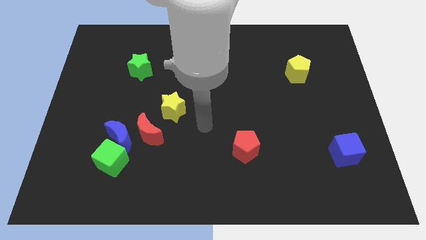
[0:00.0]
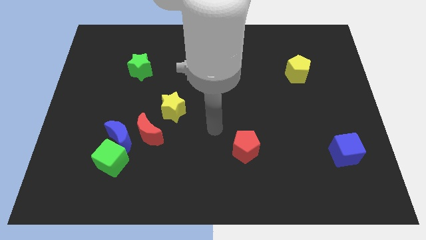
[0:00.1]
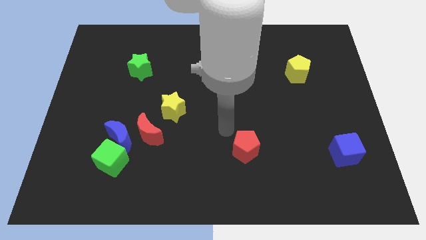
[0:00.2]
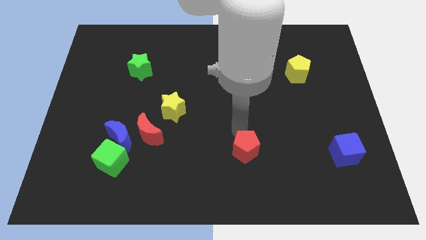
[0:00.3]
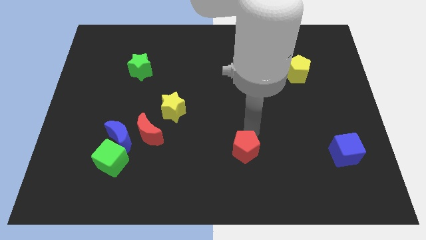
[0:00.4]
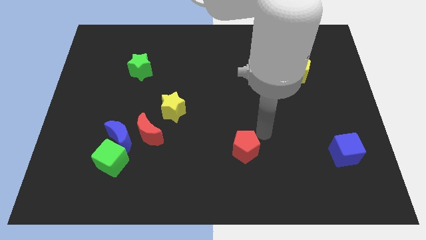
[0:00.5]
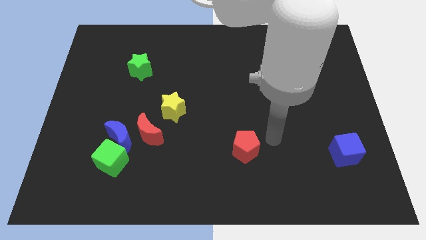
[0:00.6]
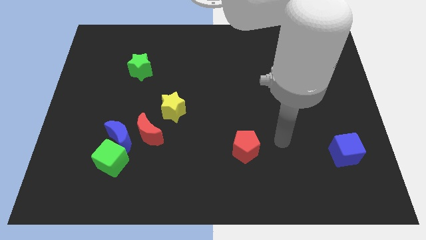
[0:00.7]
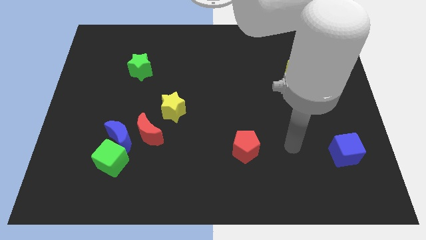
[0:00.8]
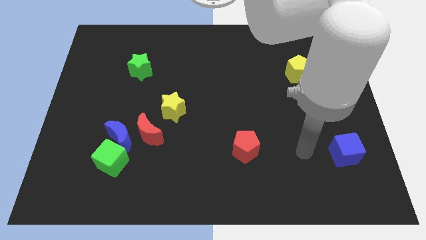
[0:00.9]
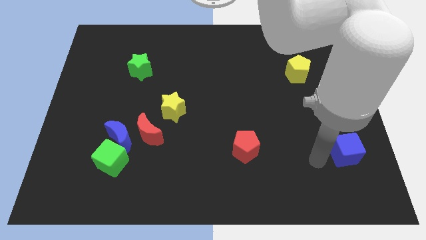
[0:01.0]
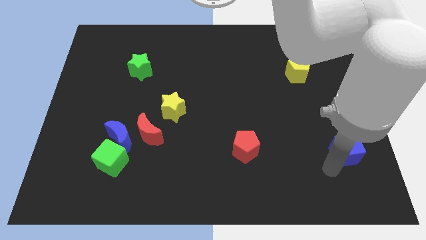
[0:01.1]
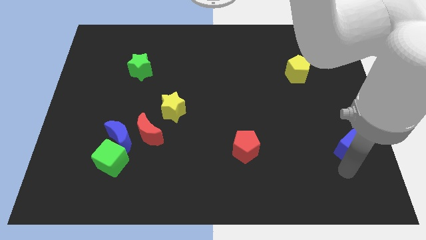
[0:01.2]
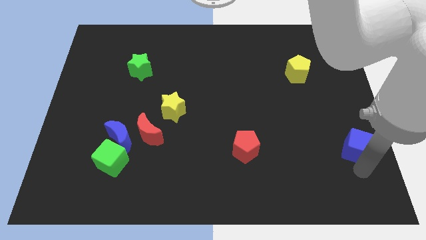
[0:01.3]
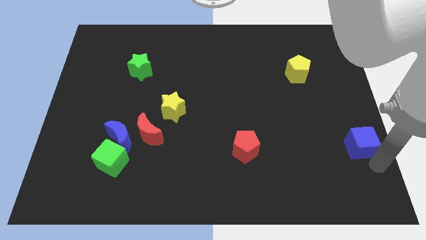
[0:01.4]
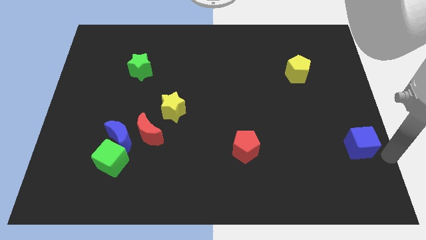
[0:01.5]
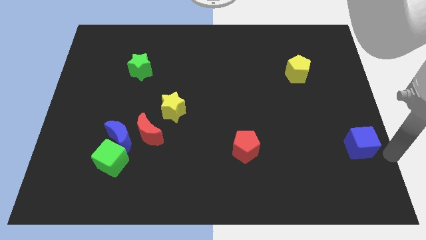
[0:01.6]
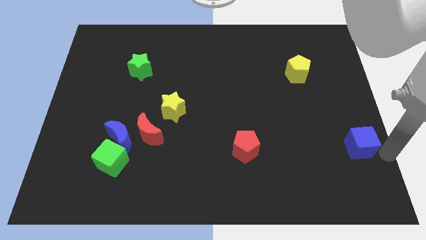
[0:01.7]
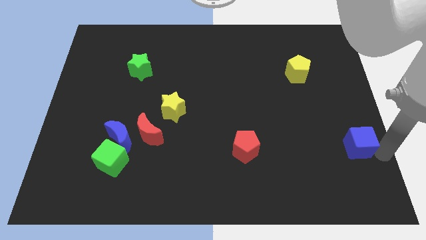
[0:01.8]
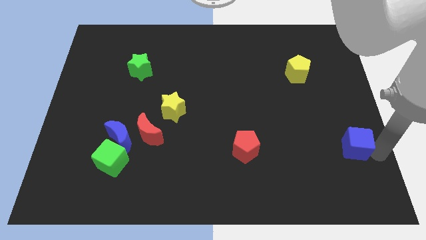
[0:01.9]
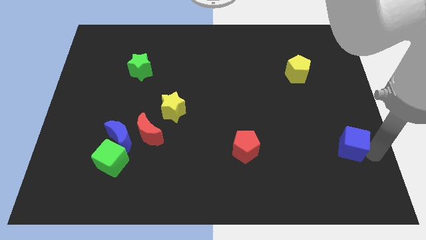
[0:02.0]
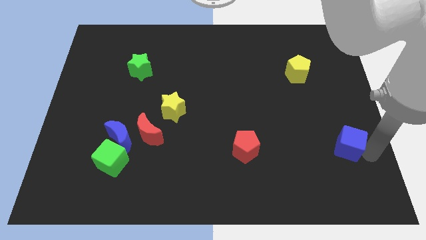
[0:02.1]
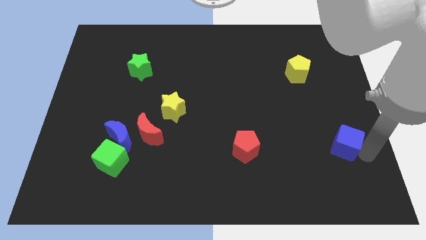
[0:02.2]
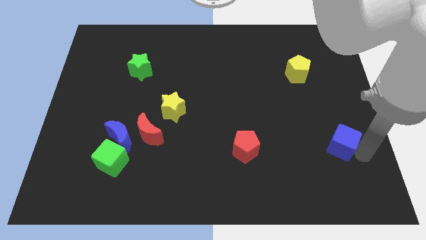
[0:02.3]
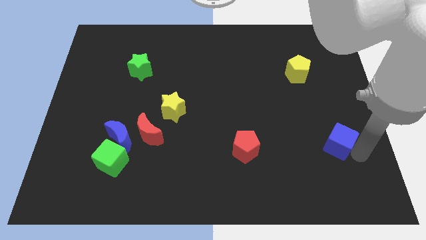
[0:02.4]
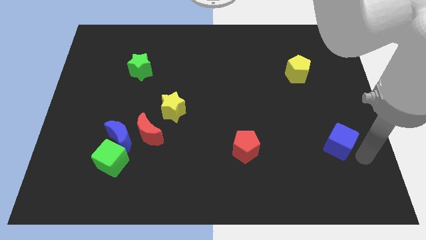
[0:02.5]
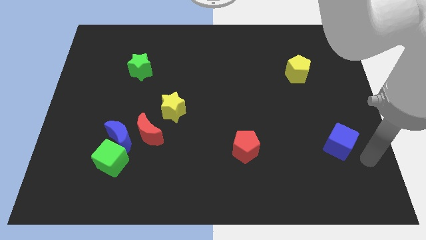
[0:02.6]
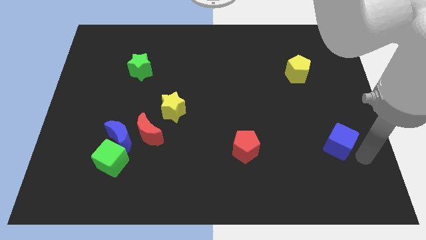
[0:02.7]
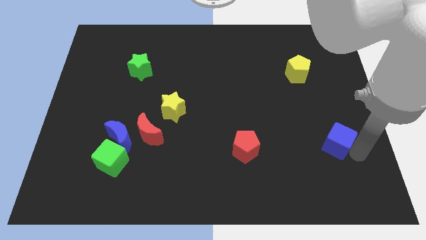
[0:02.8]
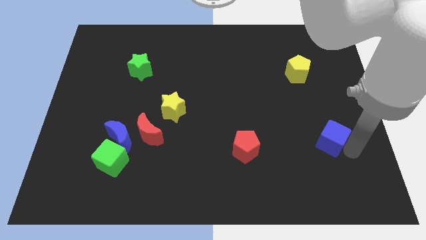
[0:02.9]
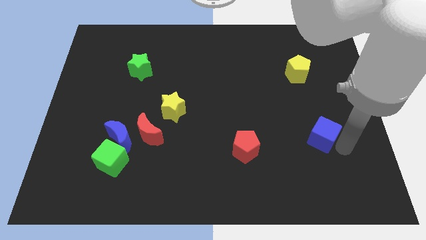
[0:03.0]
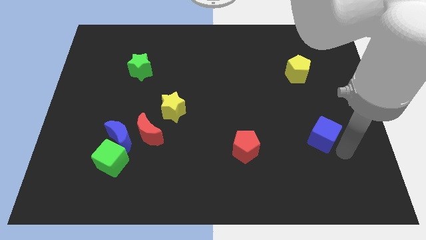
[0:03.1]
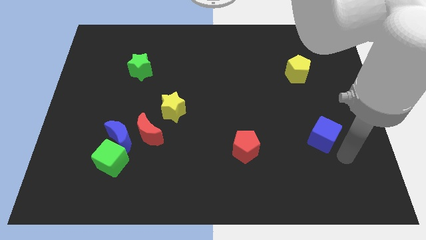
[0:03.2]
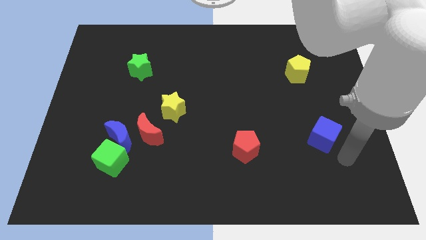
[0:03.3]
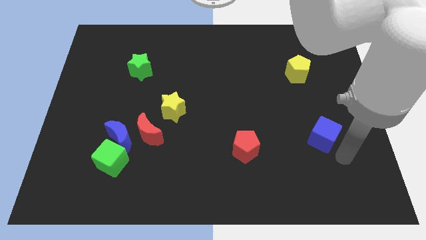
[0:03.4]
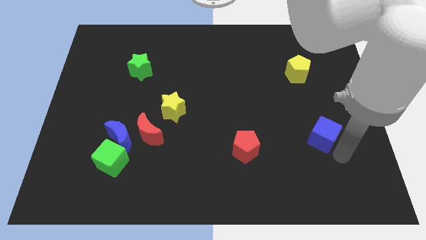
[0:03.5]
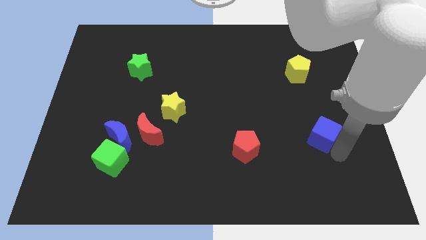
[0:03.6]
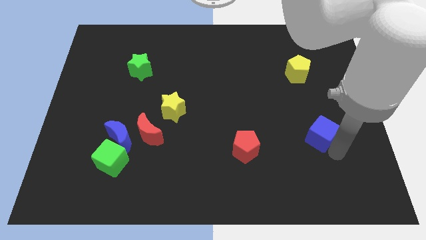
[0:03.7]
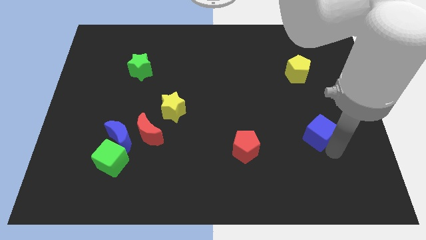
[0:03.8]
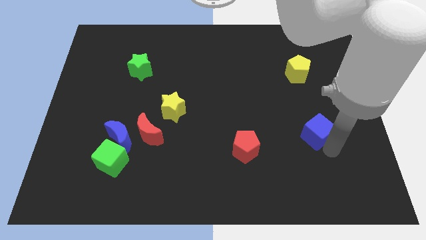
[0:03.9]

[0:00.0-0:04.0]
move the blue cube a little up and to the left

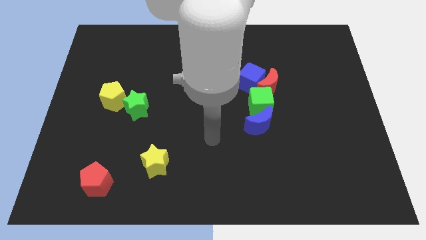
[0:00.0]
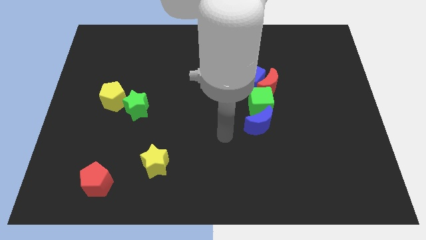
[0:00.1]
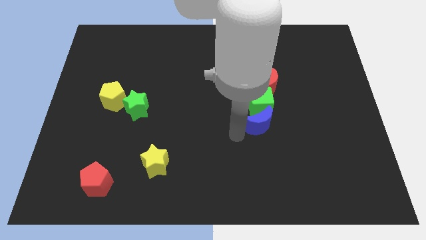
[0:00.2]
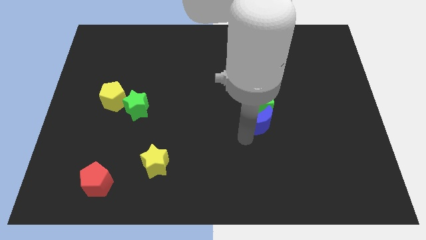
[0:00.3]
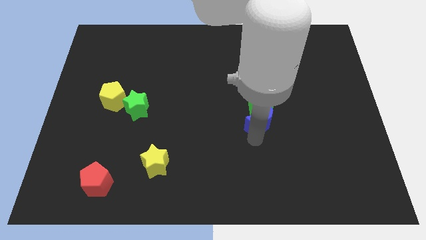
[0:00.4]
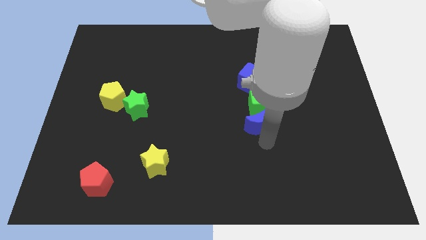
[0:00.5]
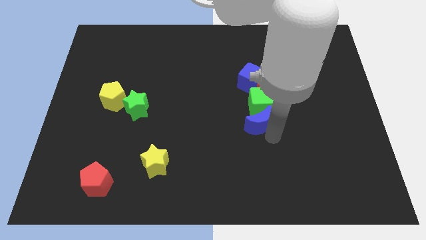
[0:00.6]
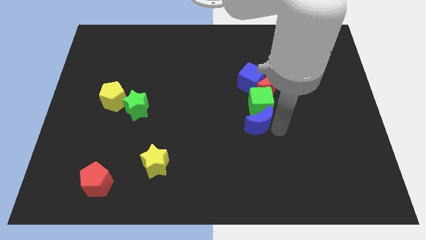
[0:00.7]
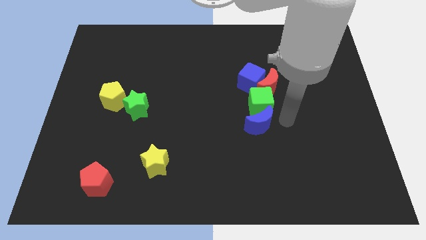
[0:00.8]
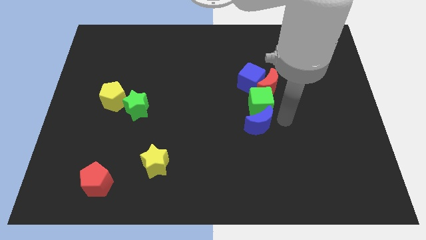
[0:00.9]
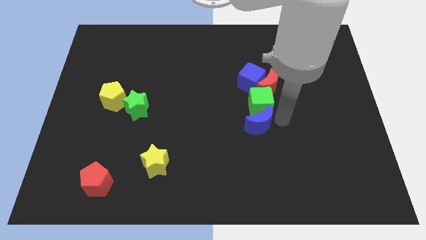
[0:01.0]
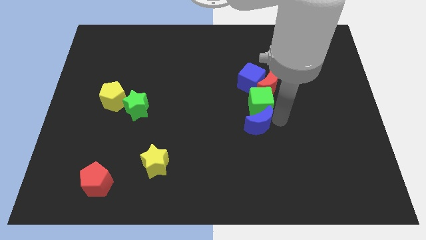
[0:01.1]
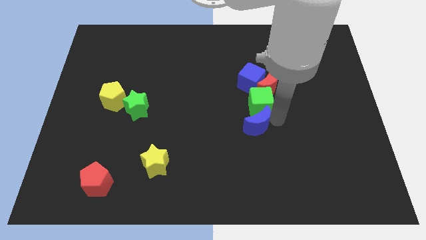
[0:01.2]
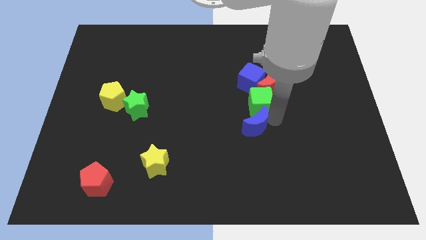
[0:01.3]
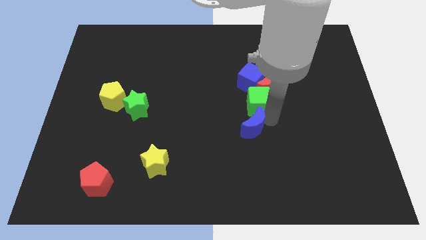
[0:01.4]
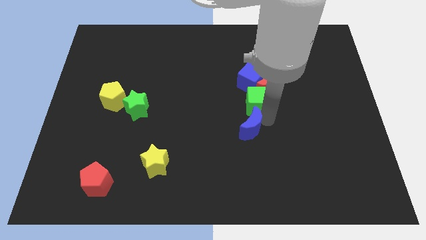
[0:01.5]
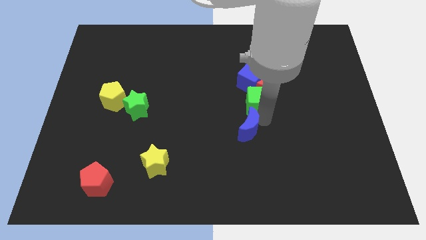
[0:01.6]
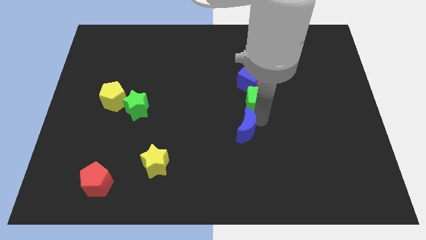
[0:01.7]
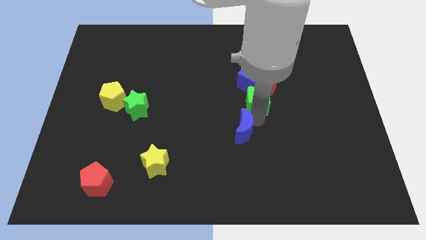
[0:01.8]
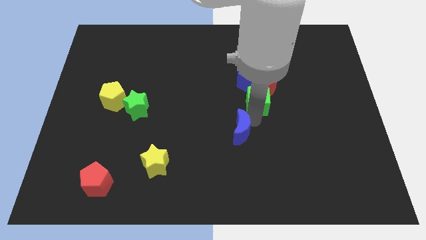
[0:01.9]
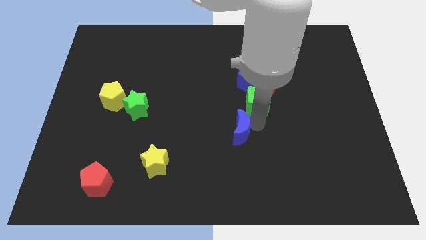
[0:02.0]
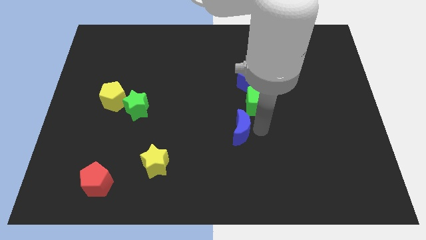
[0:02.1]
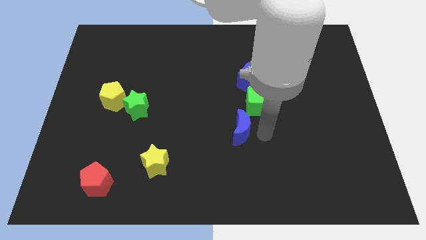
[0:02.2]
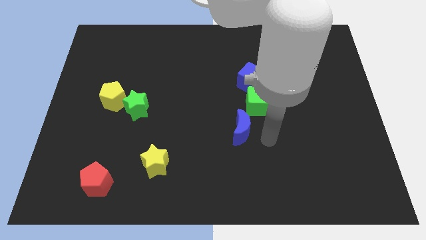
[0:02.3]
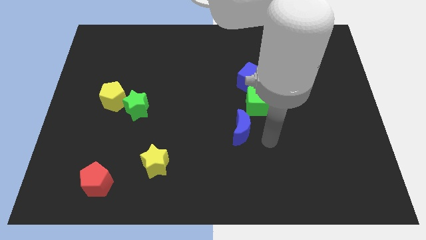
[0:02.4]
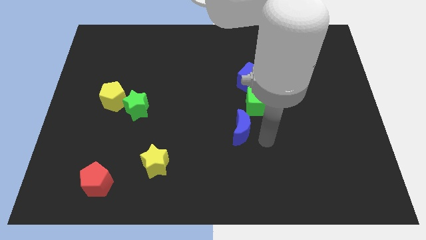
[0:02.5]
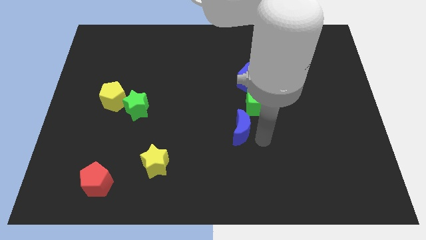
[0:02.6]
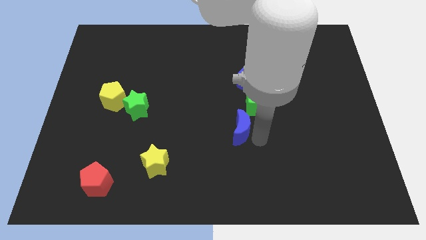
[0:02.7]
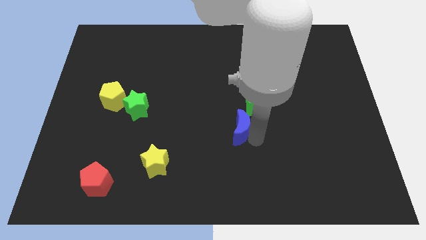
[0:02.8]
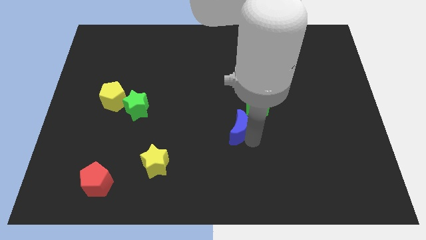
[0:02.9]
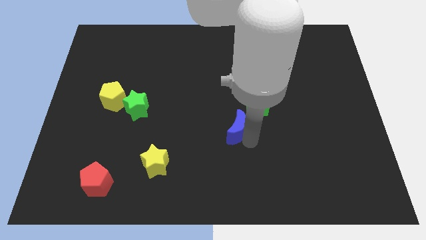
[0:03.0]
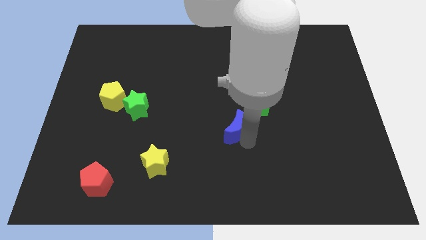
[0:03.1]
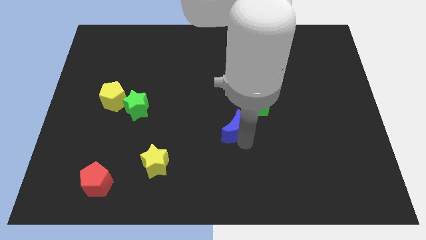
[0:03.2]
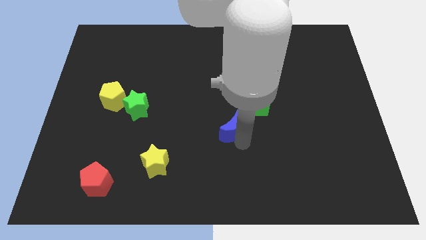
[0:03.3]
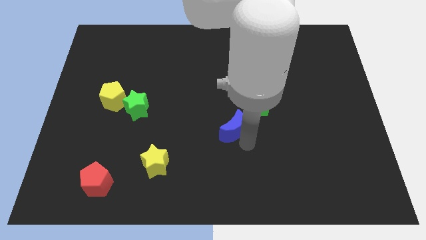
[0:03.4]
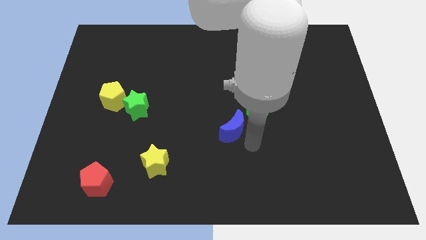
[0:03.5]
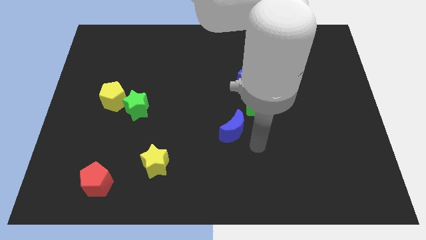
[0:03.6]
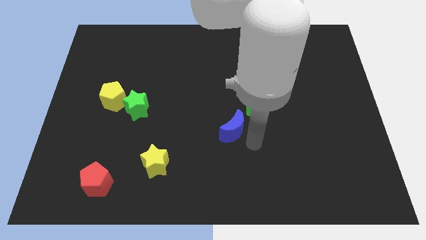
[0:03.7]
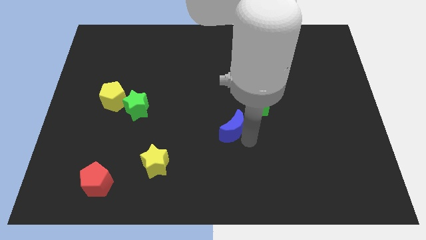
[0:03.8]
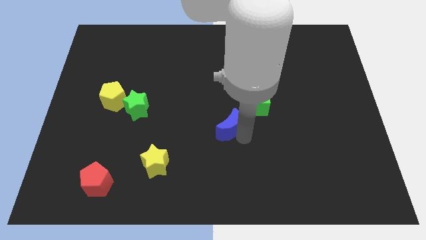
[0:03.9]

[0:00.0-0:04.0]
slightly slide the blue moon left

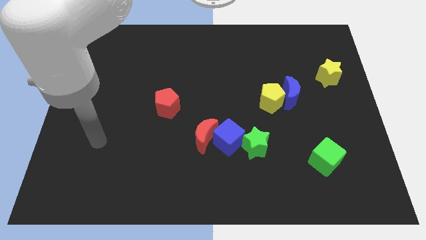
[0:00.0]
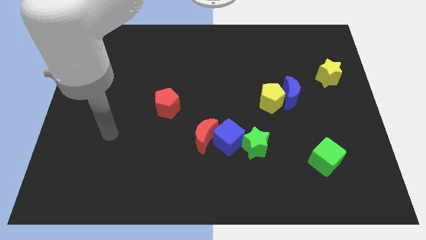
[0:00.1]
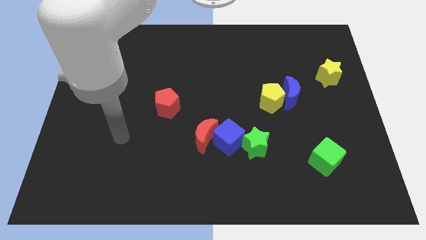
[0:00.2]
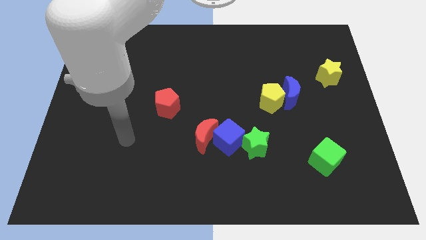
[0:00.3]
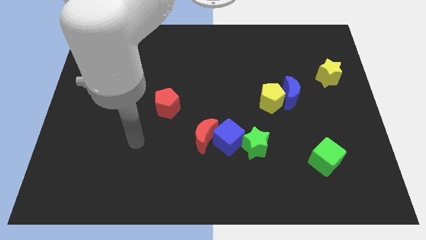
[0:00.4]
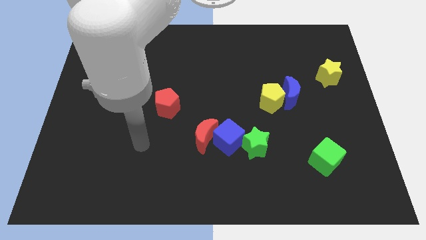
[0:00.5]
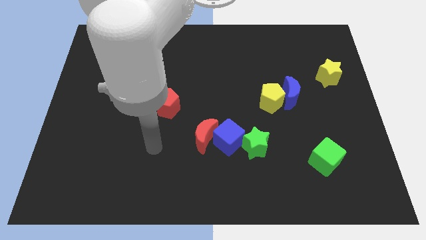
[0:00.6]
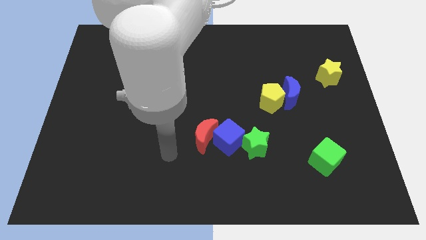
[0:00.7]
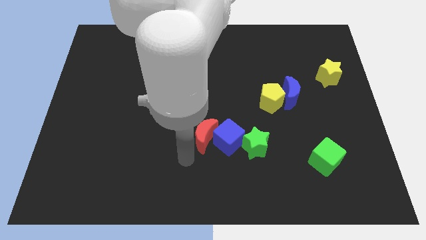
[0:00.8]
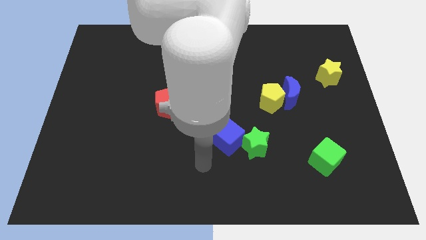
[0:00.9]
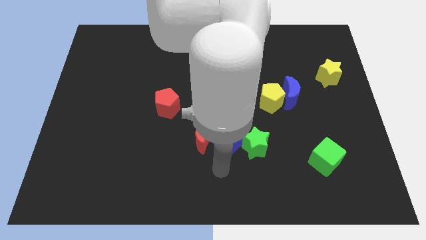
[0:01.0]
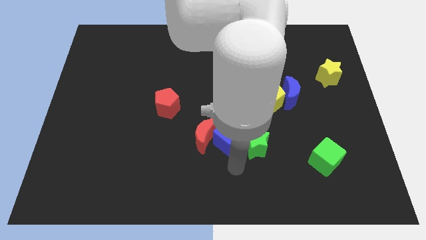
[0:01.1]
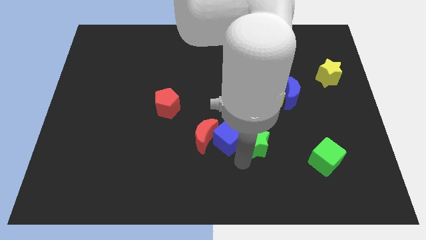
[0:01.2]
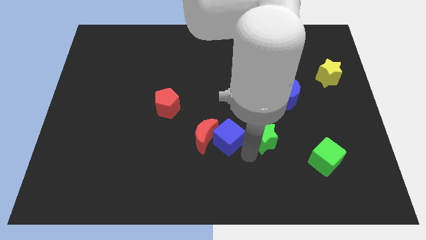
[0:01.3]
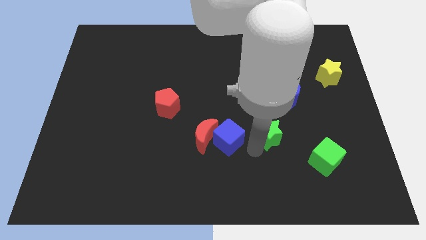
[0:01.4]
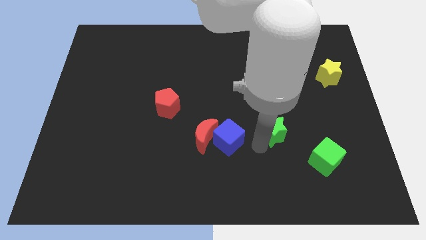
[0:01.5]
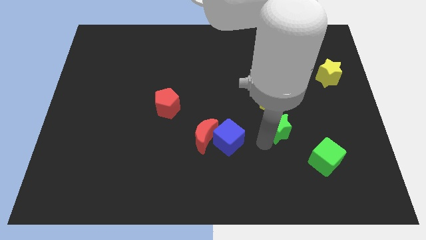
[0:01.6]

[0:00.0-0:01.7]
move the green star upwards and right diagonally a little
